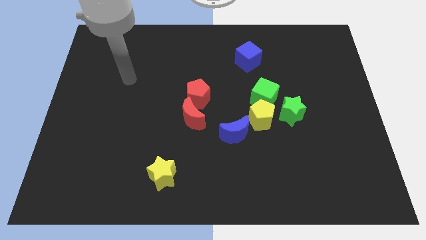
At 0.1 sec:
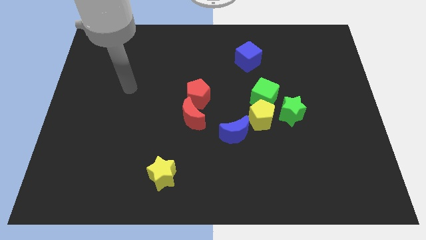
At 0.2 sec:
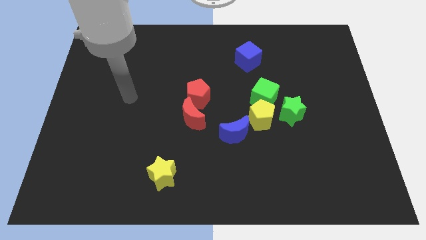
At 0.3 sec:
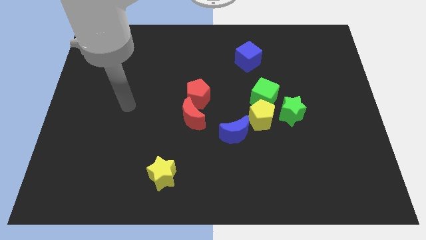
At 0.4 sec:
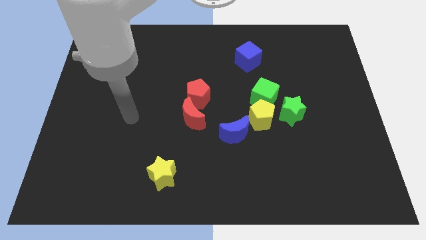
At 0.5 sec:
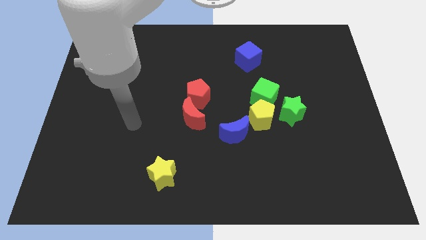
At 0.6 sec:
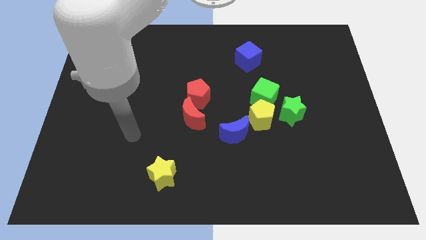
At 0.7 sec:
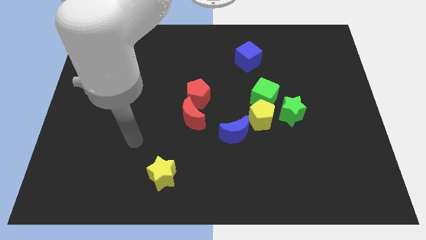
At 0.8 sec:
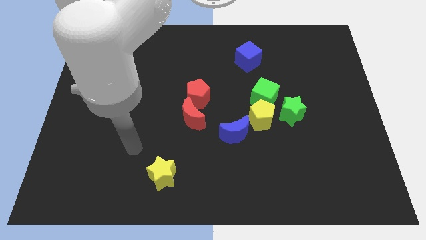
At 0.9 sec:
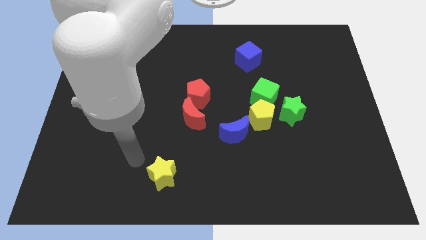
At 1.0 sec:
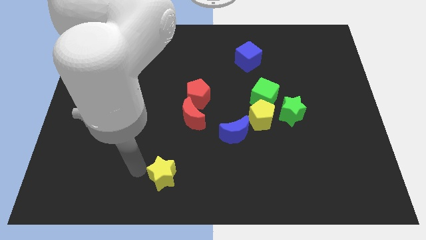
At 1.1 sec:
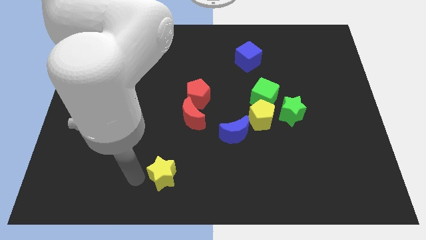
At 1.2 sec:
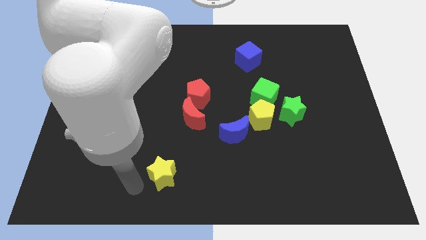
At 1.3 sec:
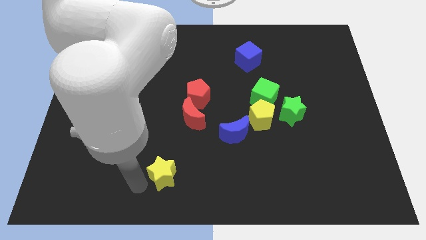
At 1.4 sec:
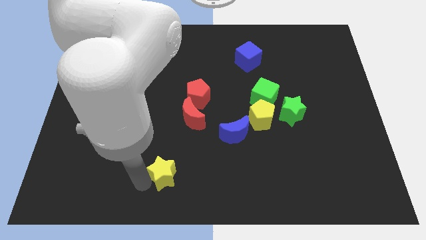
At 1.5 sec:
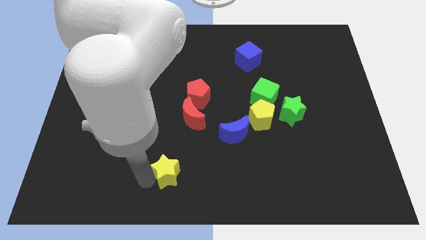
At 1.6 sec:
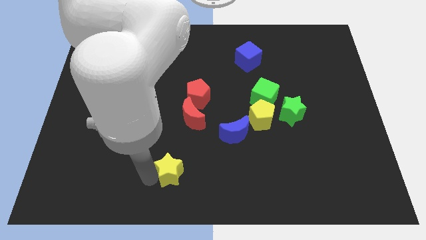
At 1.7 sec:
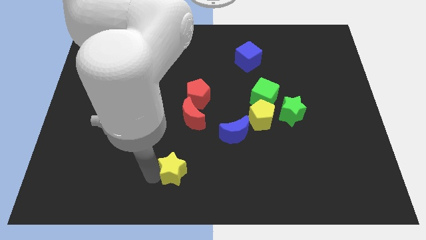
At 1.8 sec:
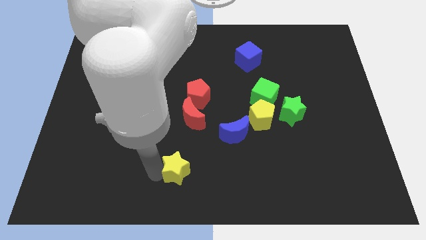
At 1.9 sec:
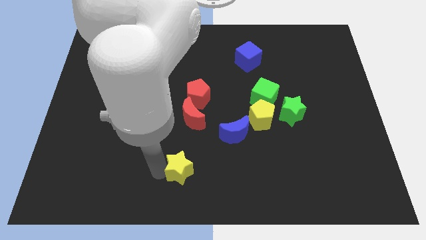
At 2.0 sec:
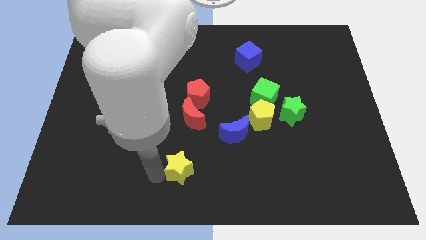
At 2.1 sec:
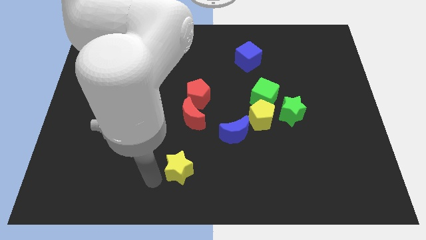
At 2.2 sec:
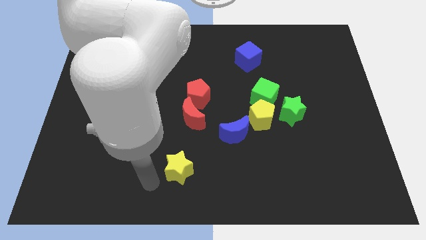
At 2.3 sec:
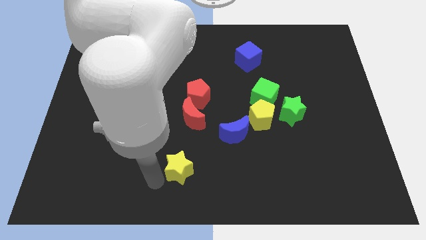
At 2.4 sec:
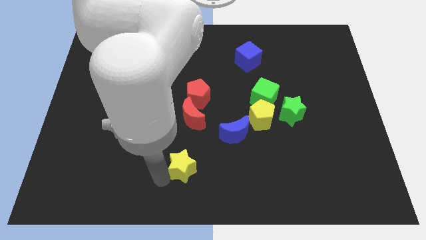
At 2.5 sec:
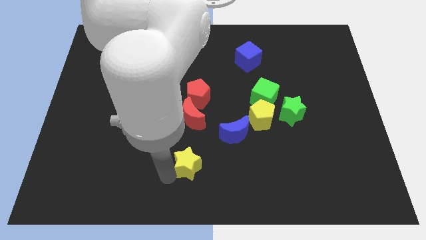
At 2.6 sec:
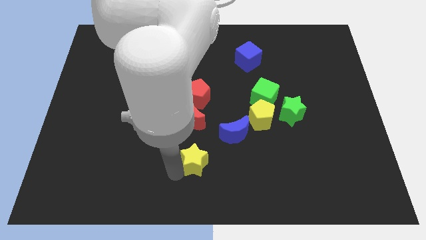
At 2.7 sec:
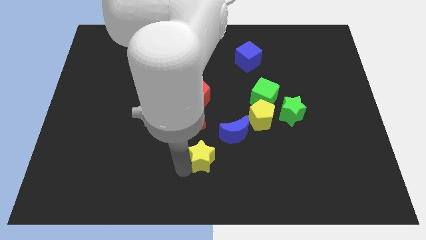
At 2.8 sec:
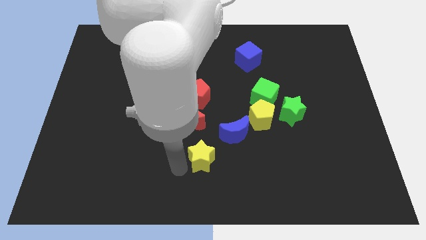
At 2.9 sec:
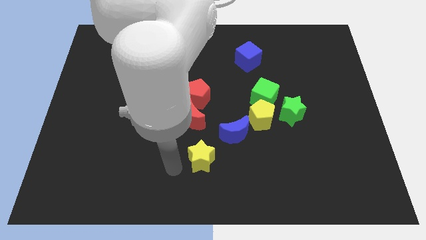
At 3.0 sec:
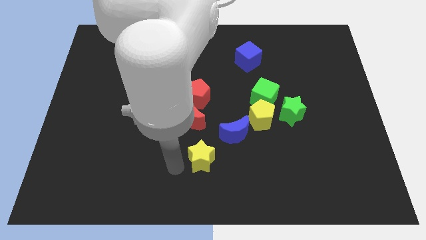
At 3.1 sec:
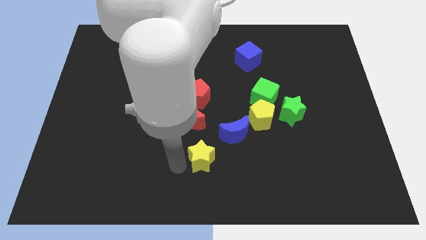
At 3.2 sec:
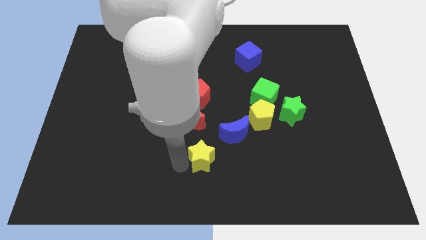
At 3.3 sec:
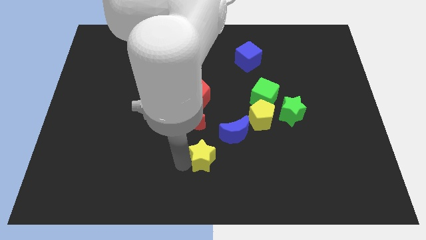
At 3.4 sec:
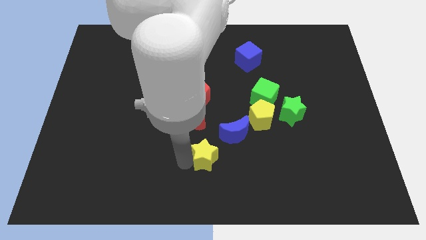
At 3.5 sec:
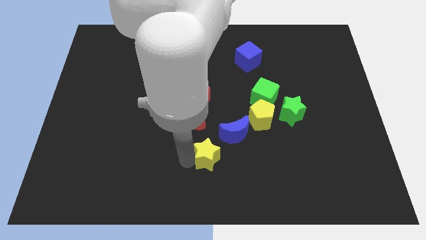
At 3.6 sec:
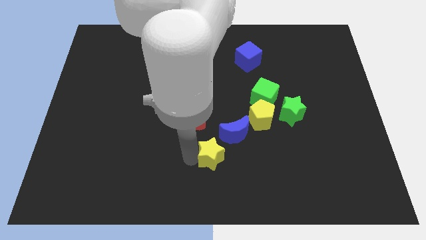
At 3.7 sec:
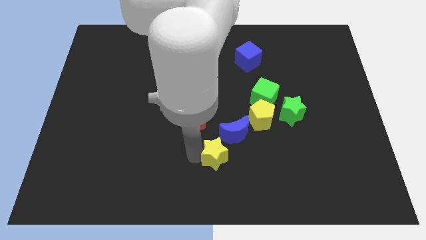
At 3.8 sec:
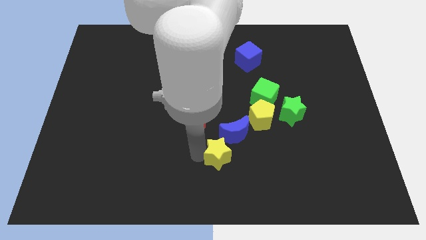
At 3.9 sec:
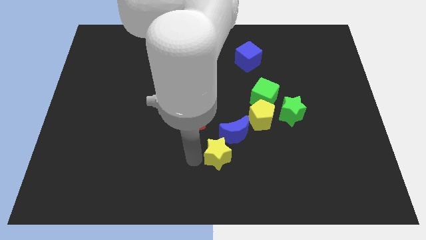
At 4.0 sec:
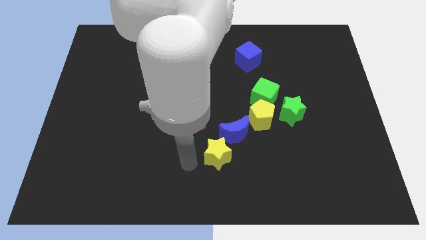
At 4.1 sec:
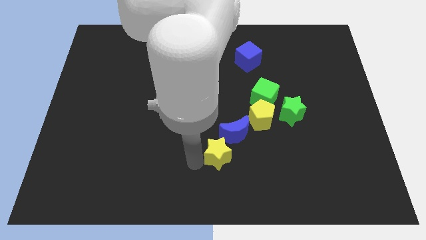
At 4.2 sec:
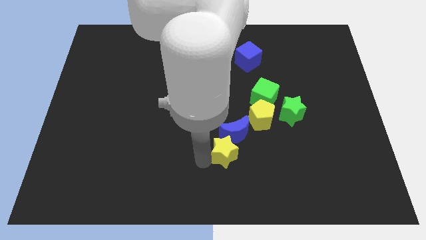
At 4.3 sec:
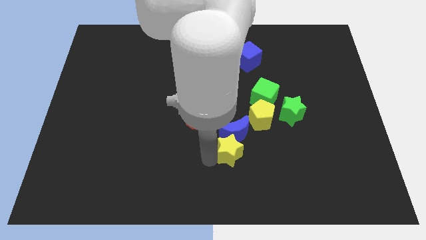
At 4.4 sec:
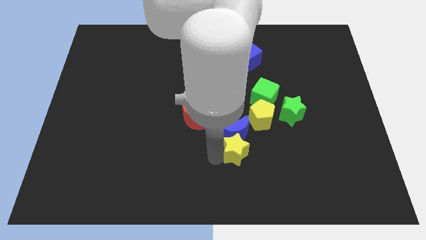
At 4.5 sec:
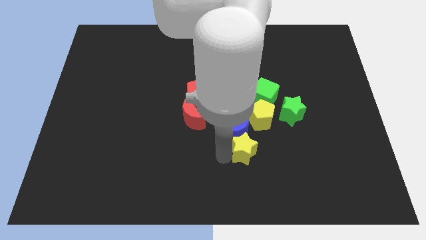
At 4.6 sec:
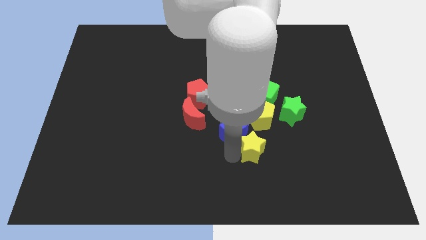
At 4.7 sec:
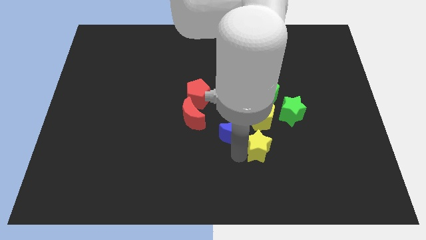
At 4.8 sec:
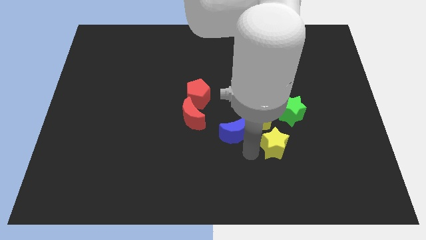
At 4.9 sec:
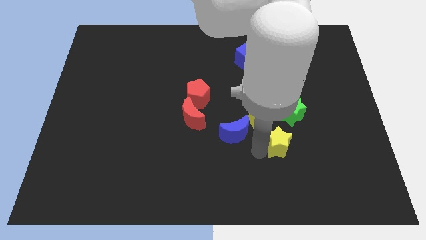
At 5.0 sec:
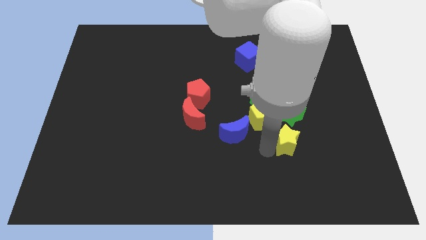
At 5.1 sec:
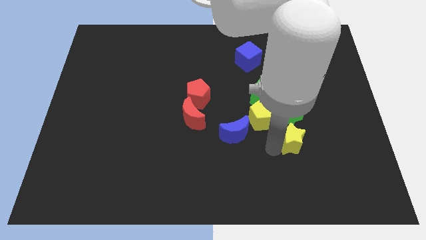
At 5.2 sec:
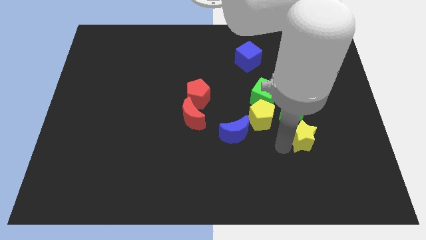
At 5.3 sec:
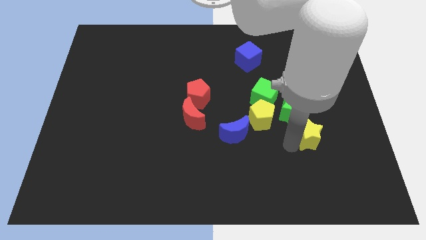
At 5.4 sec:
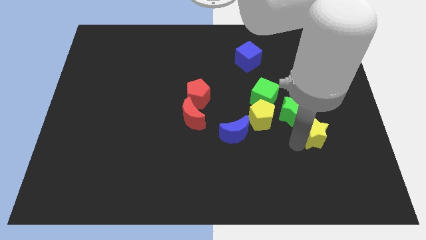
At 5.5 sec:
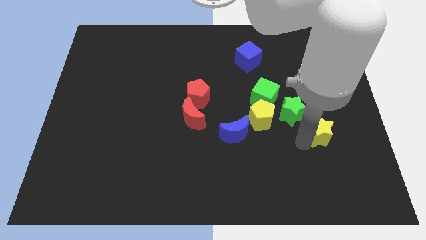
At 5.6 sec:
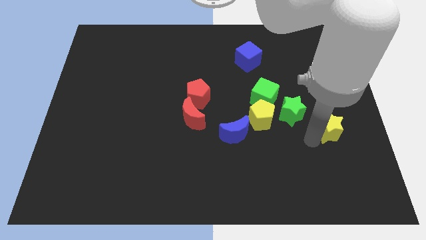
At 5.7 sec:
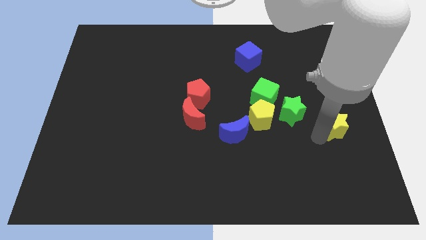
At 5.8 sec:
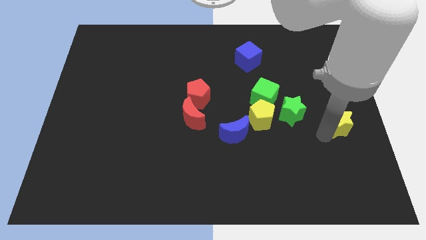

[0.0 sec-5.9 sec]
slide the yellow star to the right side

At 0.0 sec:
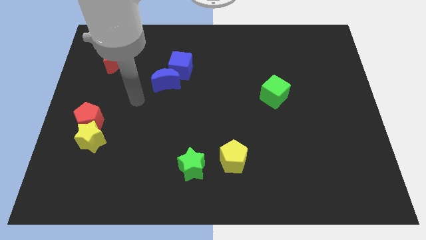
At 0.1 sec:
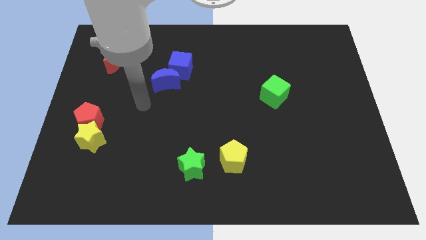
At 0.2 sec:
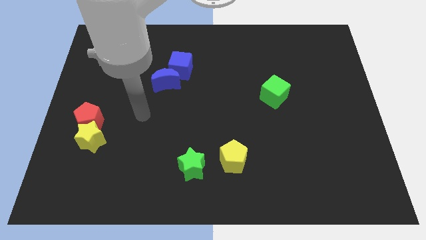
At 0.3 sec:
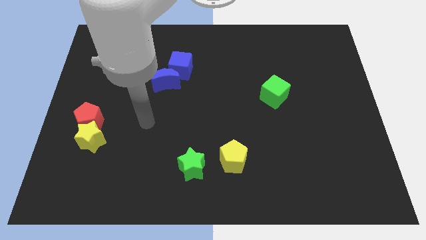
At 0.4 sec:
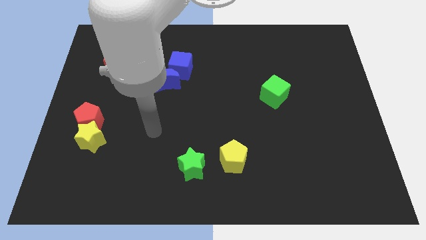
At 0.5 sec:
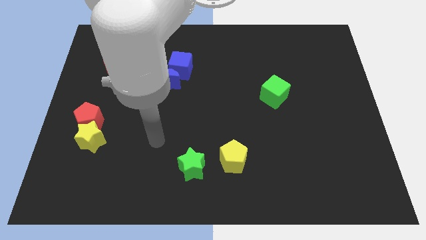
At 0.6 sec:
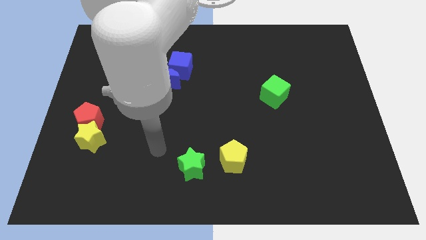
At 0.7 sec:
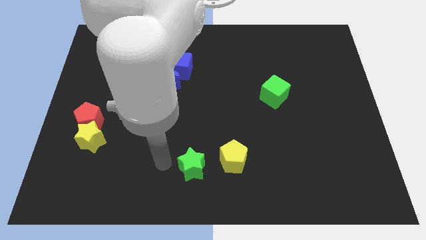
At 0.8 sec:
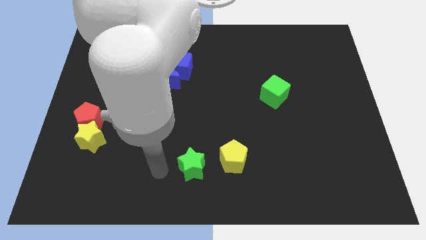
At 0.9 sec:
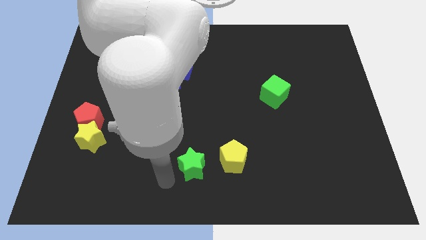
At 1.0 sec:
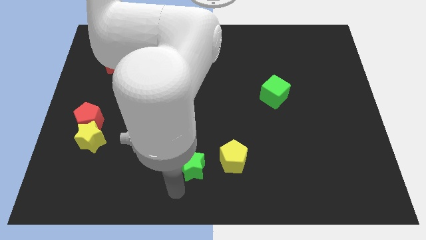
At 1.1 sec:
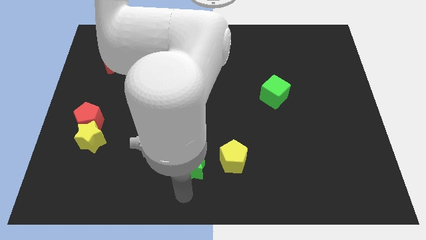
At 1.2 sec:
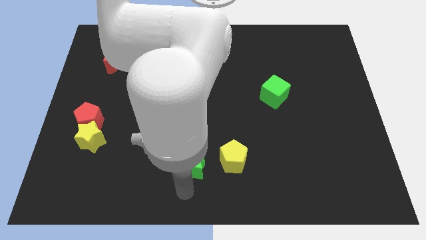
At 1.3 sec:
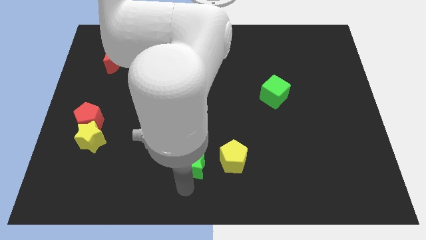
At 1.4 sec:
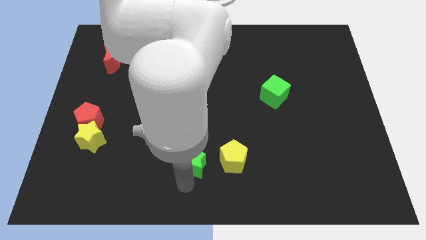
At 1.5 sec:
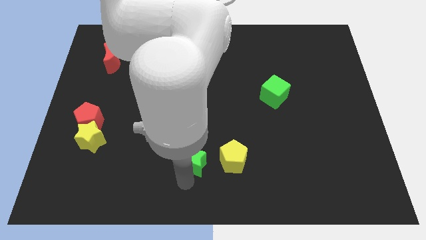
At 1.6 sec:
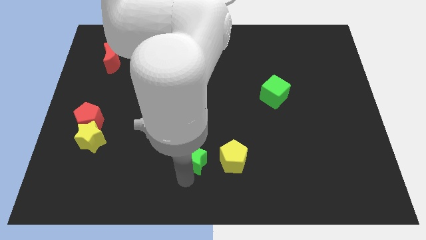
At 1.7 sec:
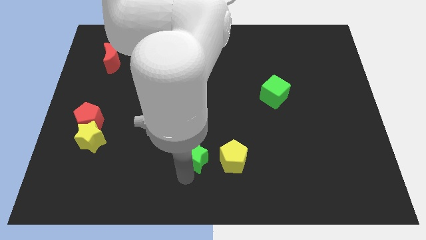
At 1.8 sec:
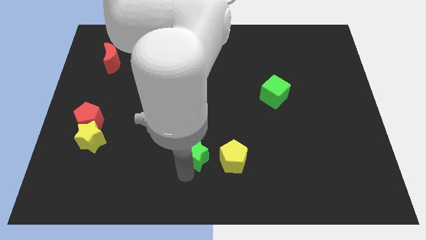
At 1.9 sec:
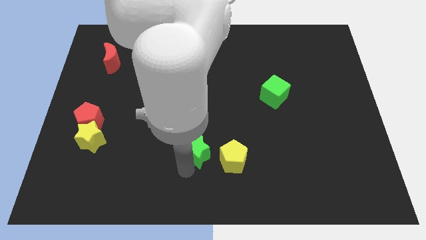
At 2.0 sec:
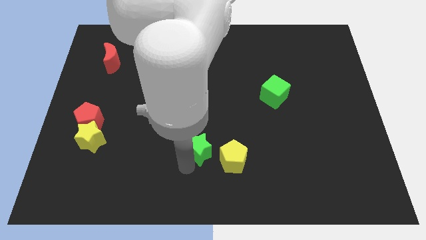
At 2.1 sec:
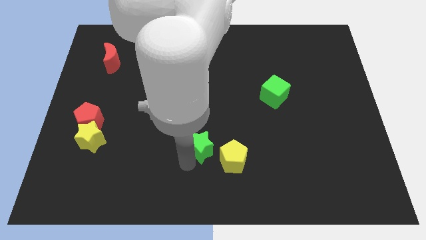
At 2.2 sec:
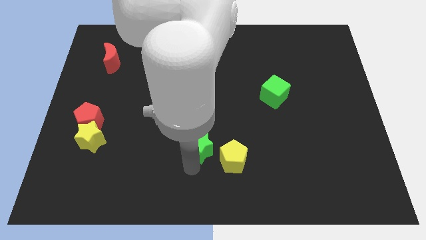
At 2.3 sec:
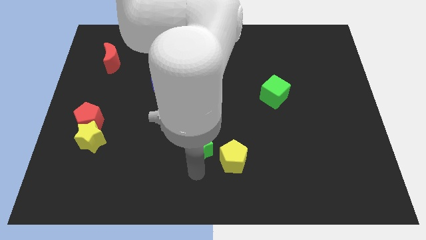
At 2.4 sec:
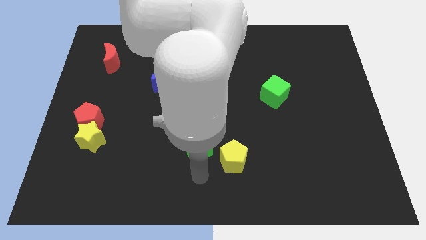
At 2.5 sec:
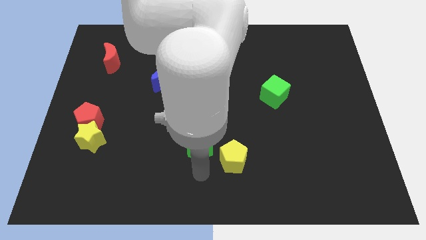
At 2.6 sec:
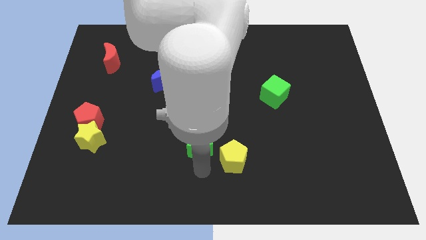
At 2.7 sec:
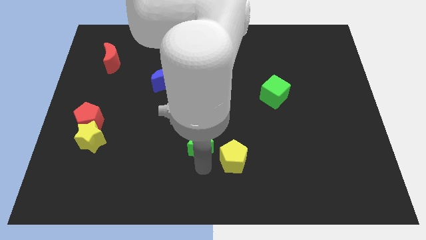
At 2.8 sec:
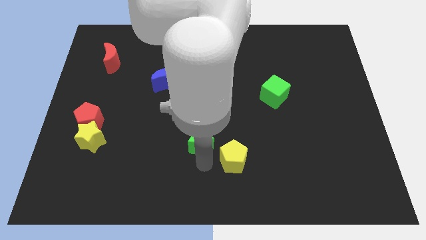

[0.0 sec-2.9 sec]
slide the green star to the middle of the board
